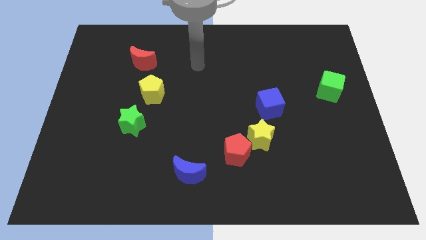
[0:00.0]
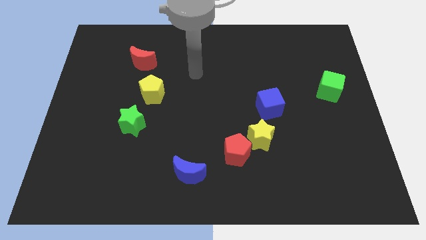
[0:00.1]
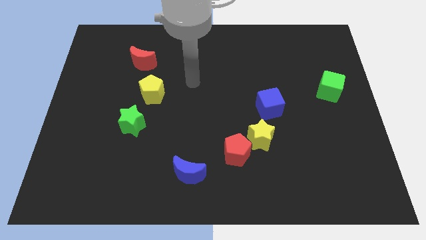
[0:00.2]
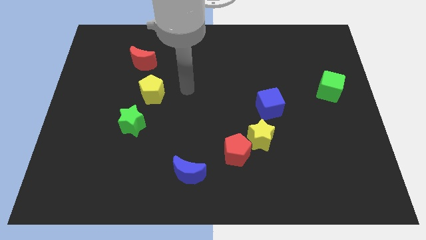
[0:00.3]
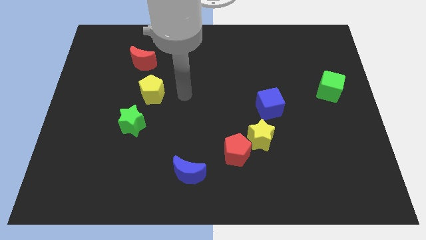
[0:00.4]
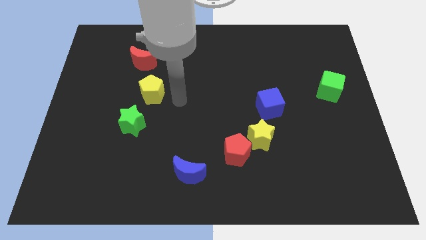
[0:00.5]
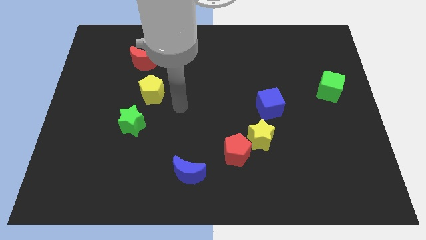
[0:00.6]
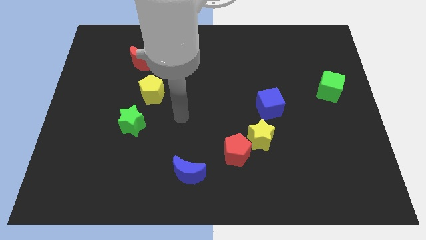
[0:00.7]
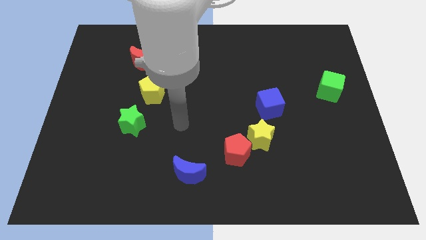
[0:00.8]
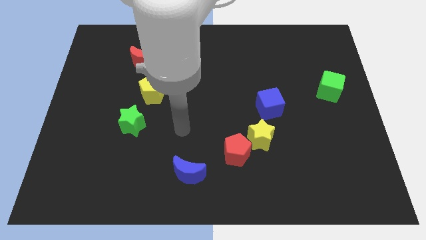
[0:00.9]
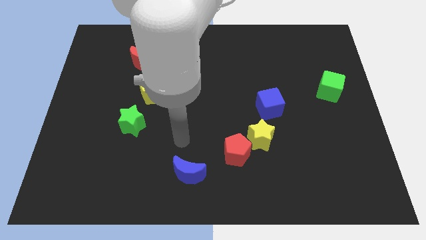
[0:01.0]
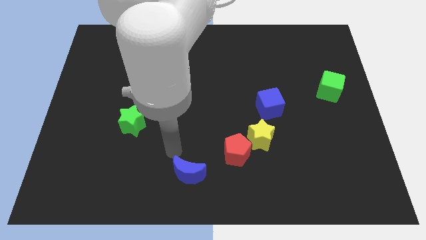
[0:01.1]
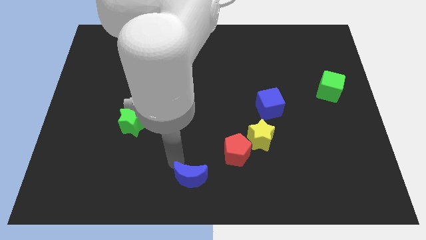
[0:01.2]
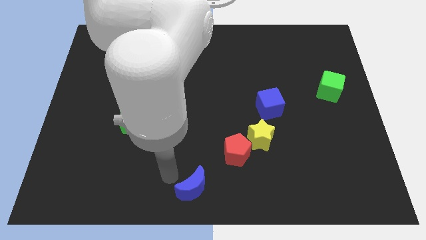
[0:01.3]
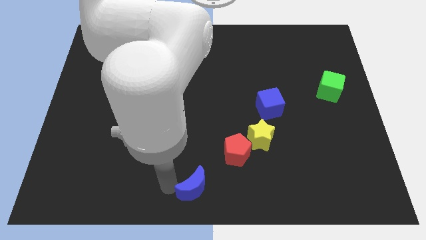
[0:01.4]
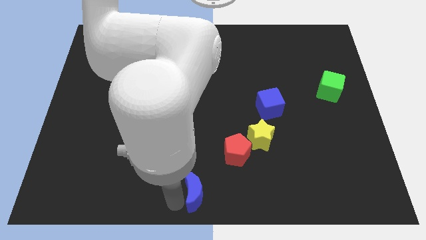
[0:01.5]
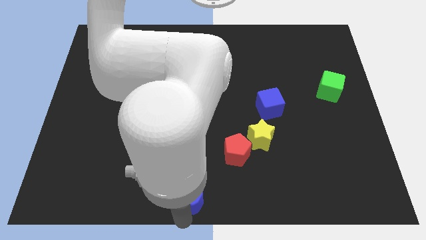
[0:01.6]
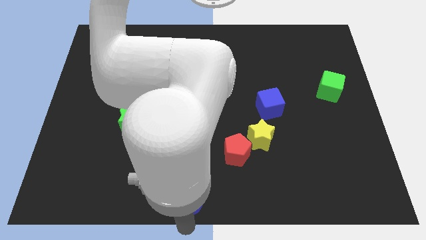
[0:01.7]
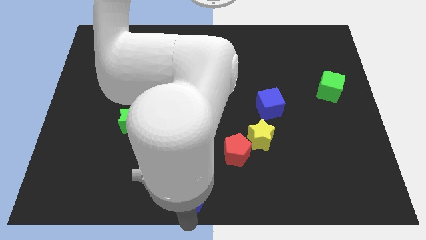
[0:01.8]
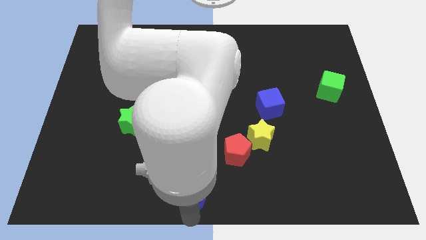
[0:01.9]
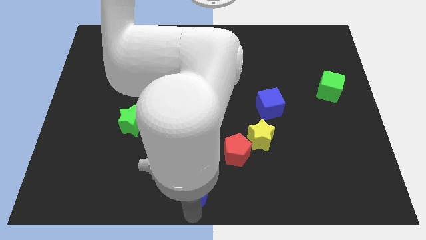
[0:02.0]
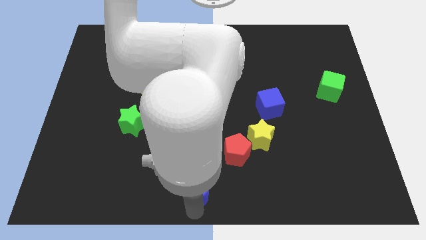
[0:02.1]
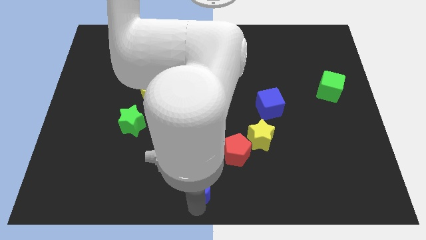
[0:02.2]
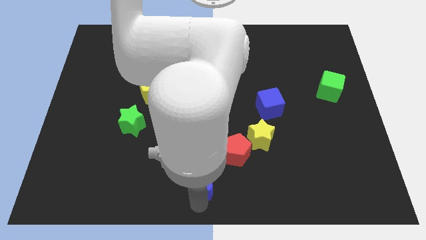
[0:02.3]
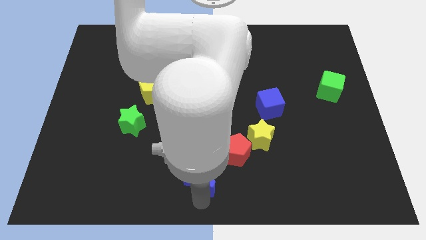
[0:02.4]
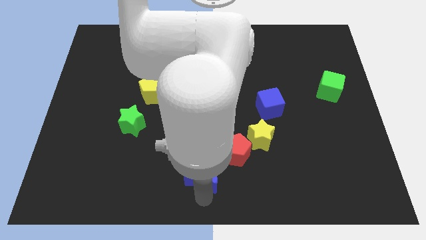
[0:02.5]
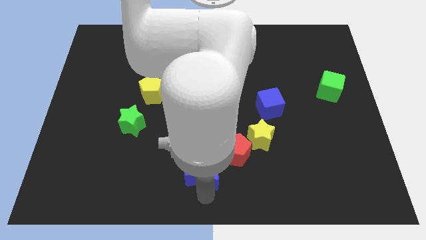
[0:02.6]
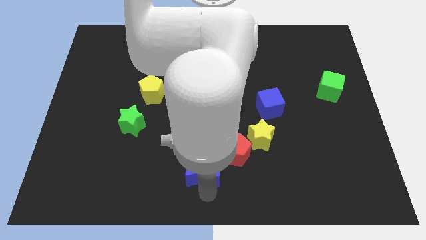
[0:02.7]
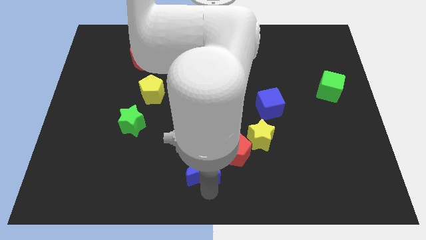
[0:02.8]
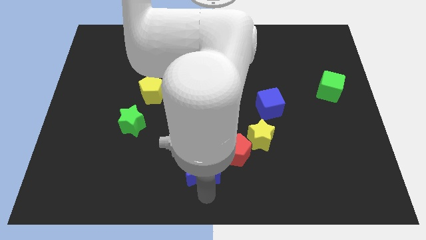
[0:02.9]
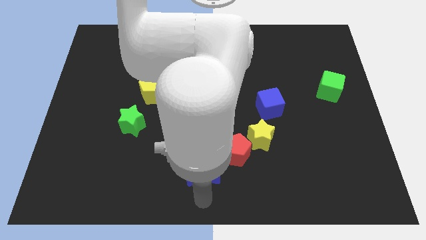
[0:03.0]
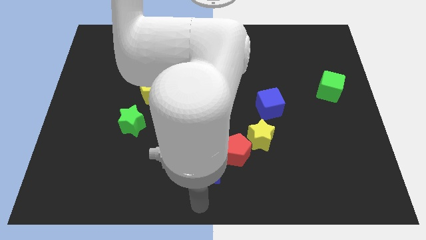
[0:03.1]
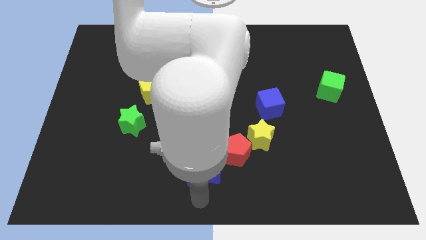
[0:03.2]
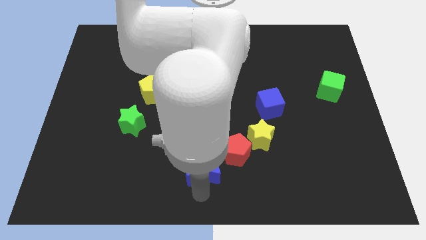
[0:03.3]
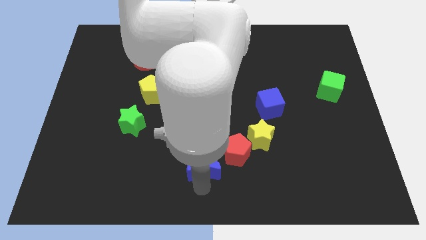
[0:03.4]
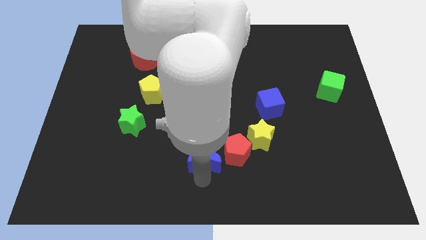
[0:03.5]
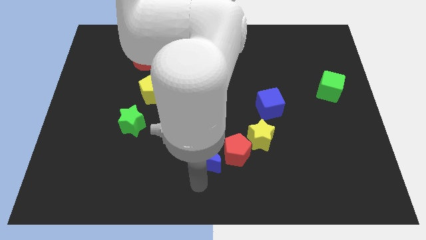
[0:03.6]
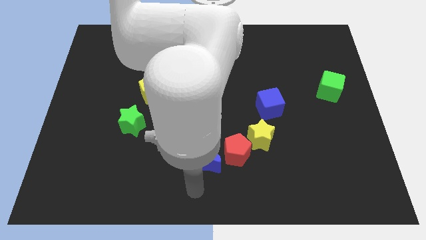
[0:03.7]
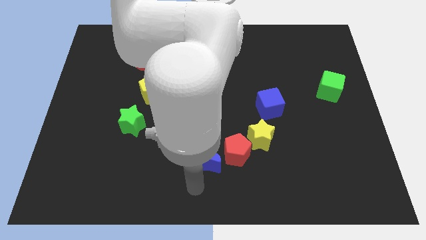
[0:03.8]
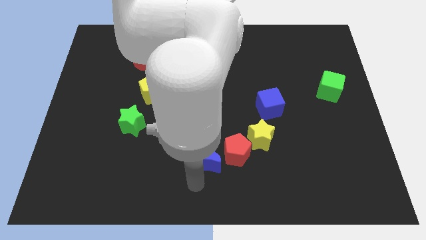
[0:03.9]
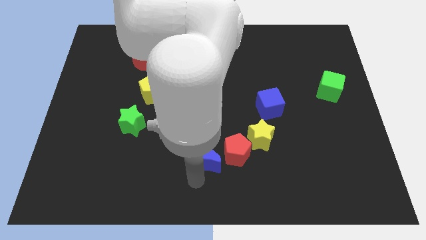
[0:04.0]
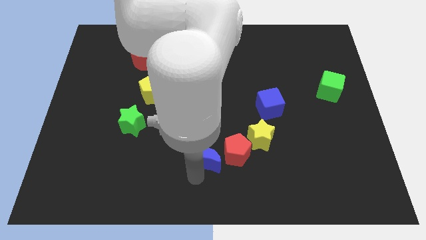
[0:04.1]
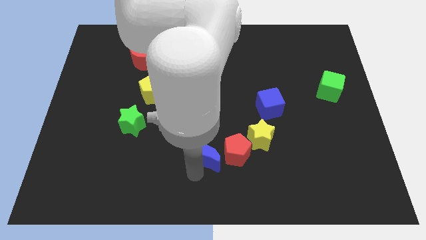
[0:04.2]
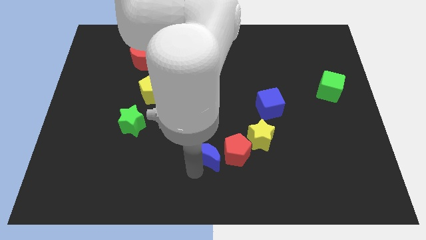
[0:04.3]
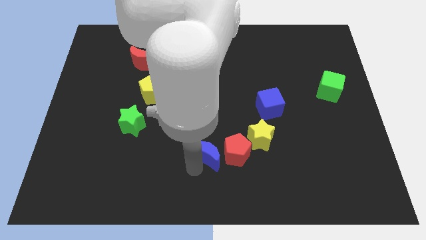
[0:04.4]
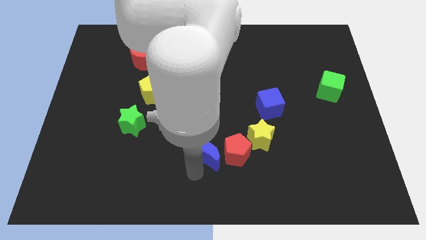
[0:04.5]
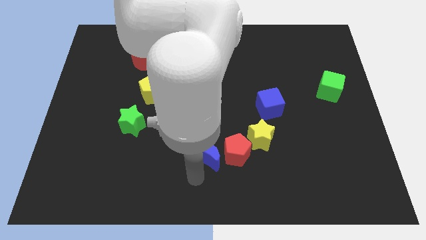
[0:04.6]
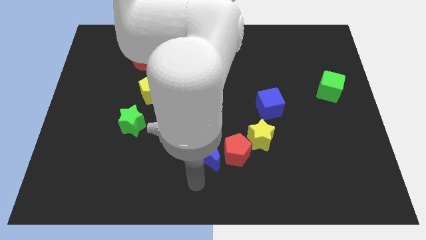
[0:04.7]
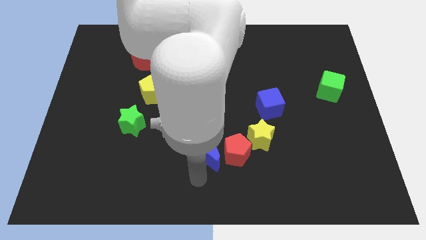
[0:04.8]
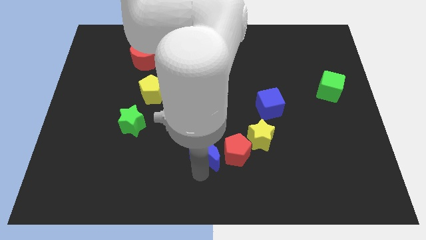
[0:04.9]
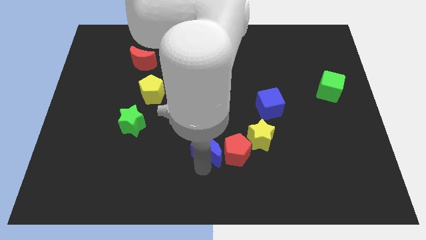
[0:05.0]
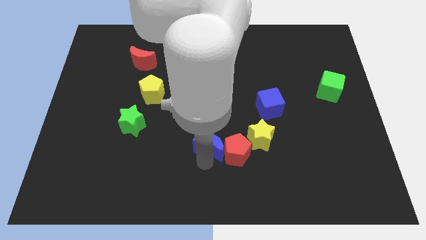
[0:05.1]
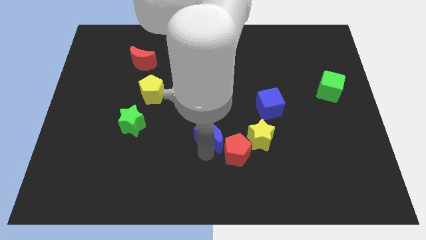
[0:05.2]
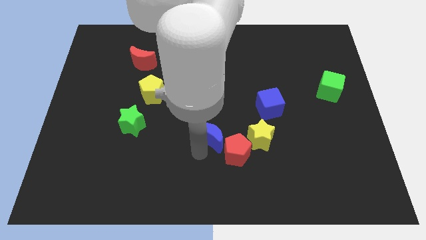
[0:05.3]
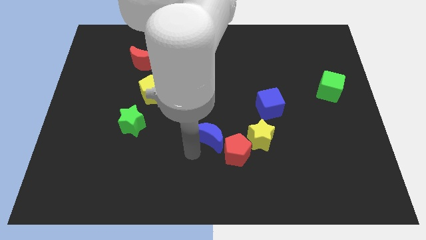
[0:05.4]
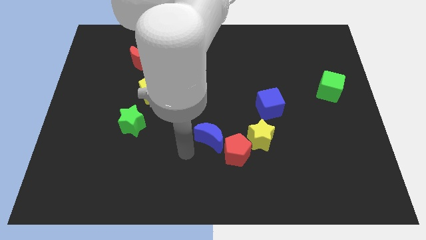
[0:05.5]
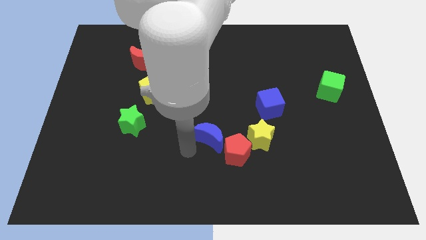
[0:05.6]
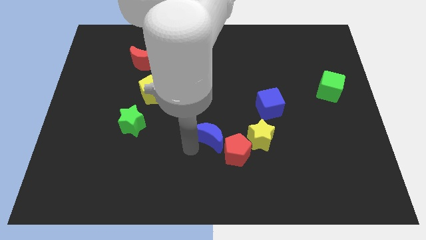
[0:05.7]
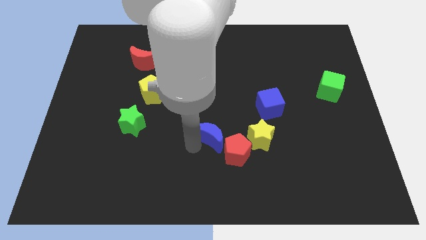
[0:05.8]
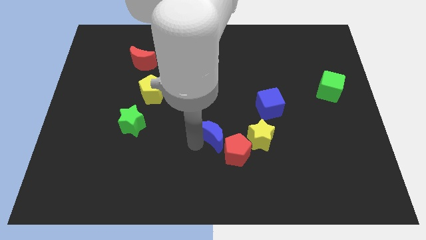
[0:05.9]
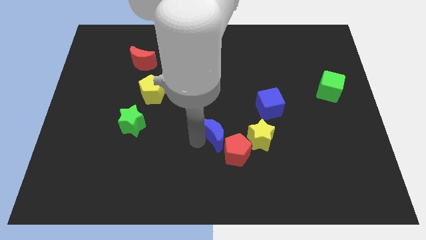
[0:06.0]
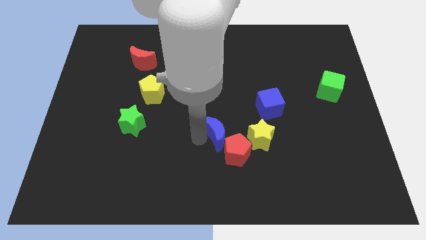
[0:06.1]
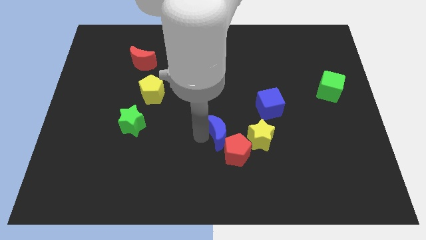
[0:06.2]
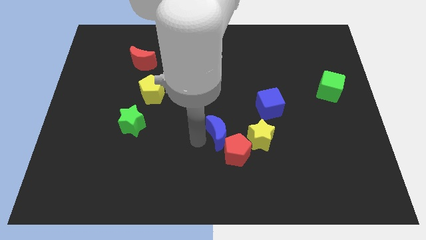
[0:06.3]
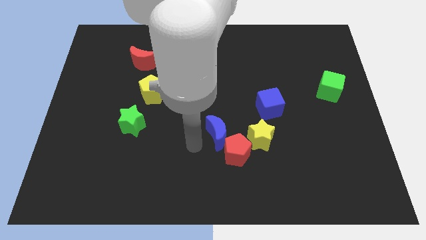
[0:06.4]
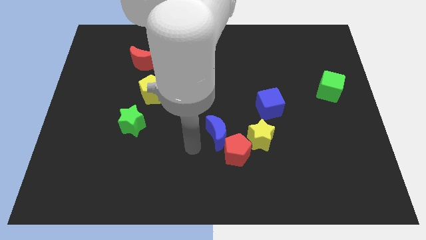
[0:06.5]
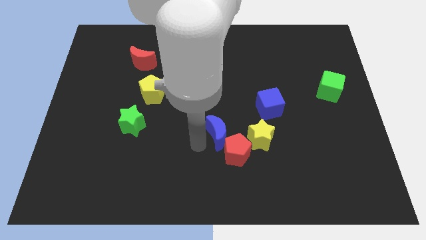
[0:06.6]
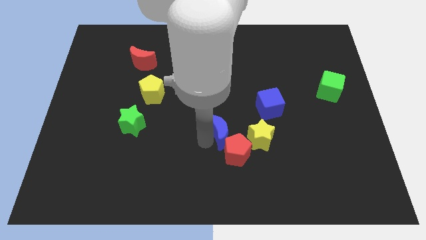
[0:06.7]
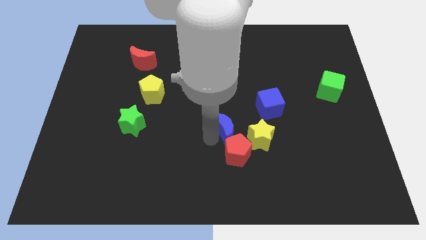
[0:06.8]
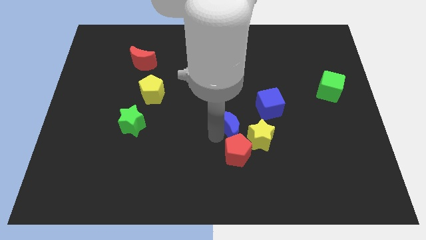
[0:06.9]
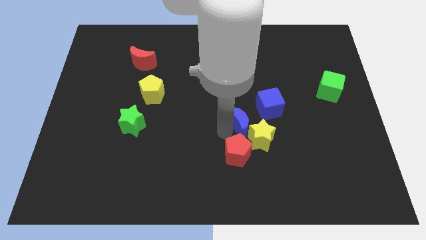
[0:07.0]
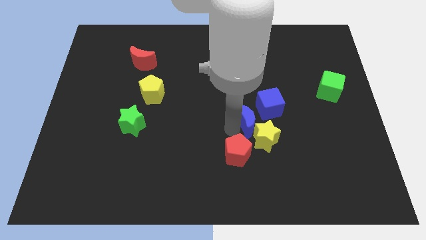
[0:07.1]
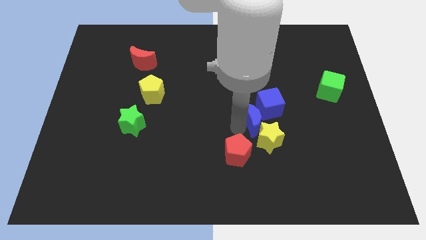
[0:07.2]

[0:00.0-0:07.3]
push the blue moon close to the blue cube
